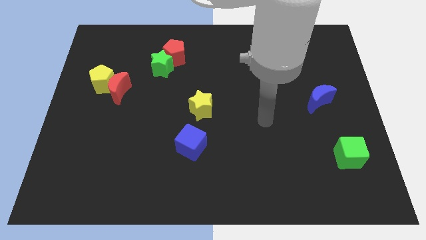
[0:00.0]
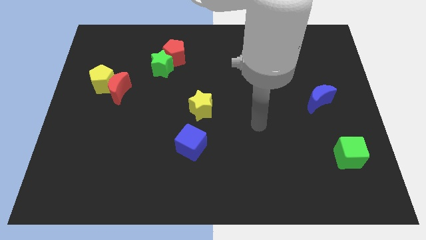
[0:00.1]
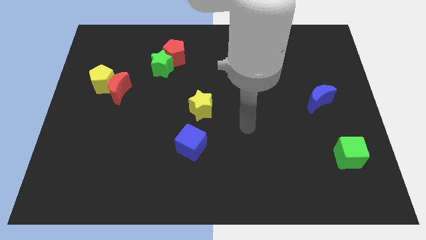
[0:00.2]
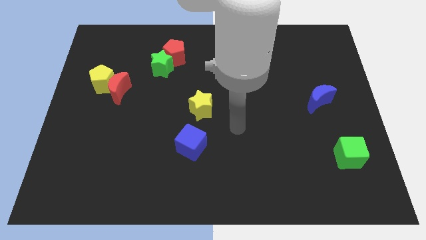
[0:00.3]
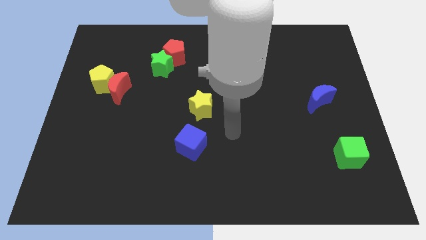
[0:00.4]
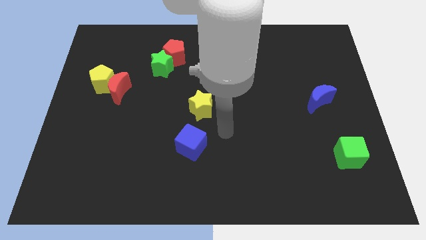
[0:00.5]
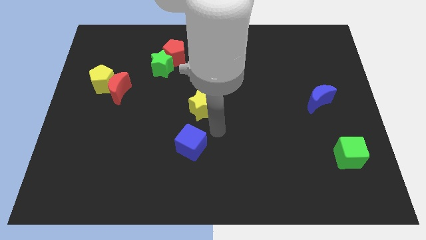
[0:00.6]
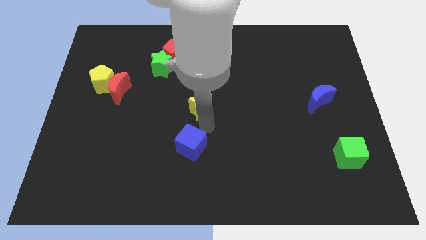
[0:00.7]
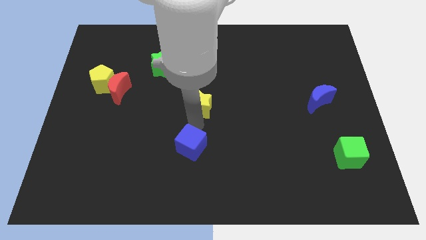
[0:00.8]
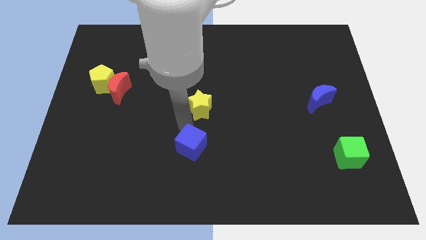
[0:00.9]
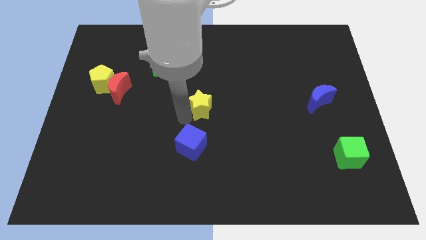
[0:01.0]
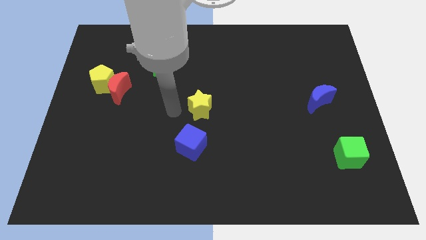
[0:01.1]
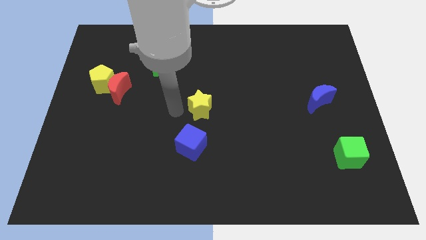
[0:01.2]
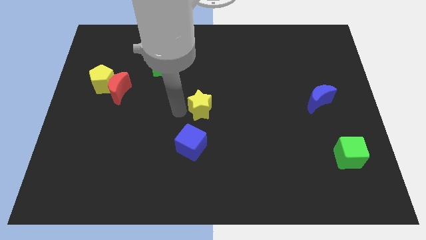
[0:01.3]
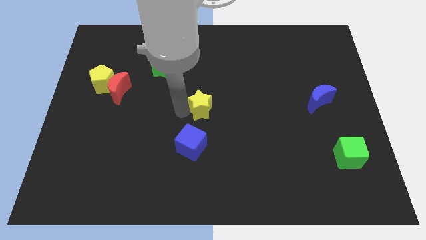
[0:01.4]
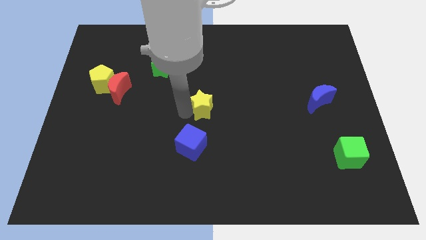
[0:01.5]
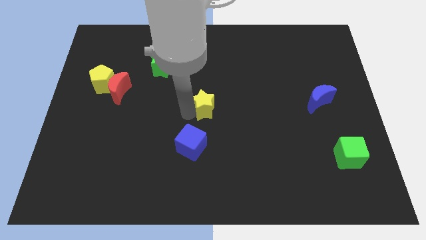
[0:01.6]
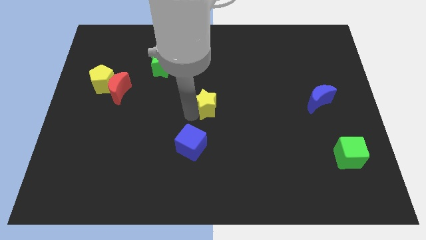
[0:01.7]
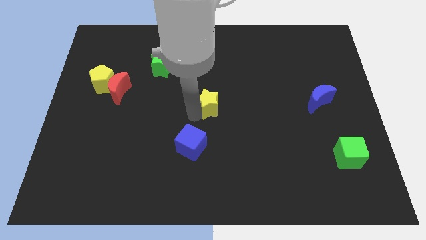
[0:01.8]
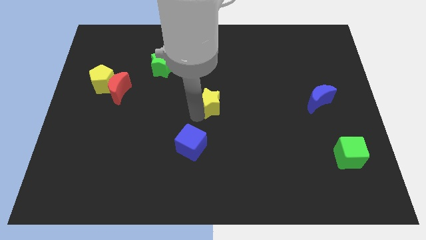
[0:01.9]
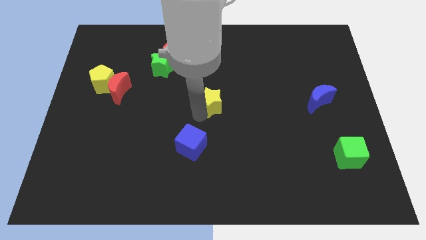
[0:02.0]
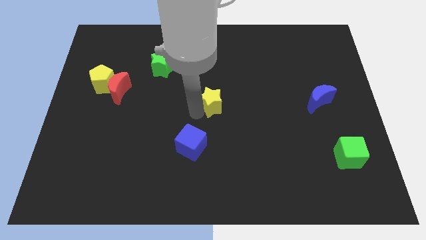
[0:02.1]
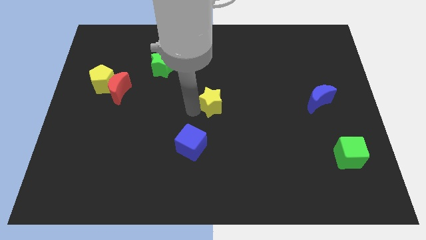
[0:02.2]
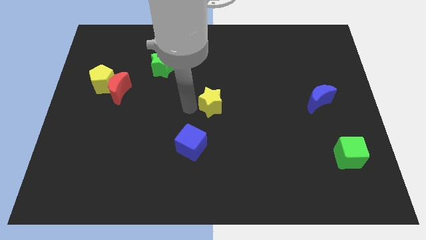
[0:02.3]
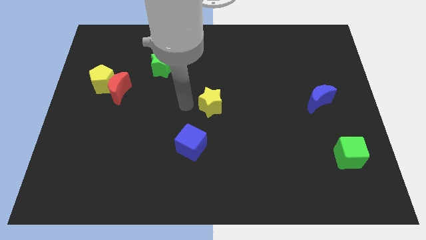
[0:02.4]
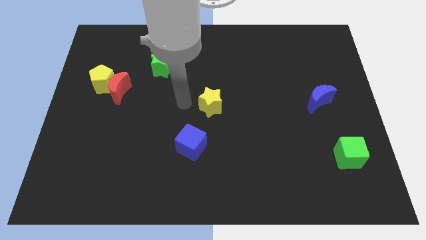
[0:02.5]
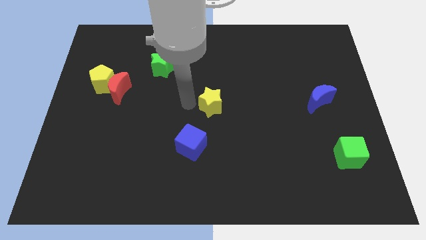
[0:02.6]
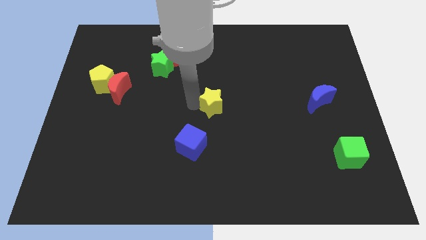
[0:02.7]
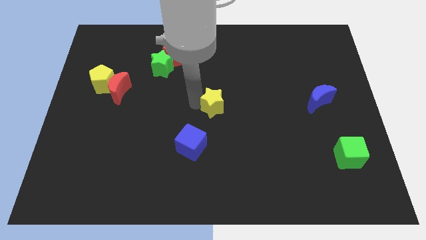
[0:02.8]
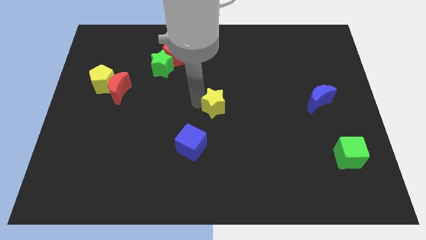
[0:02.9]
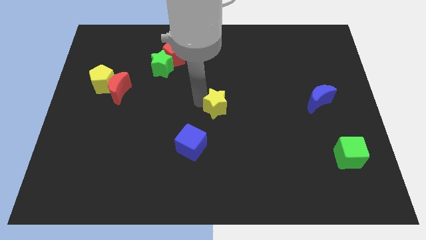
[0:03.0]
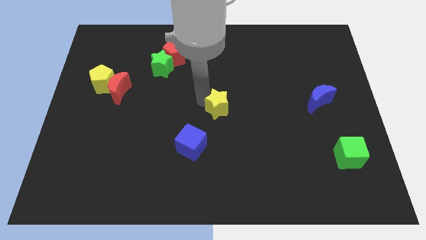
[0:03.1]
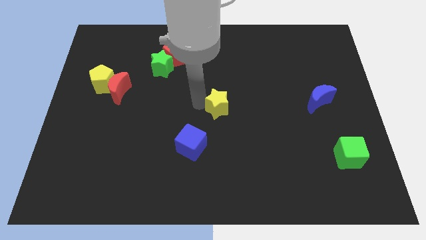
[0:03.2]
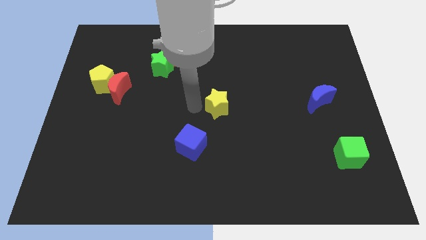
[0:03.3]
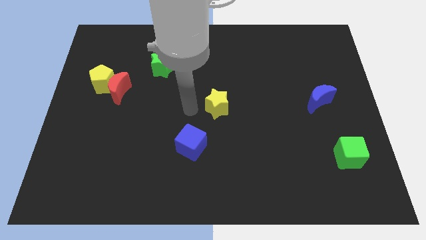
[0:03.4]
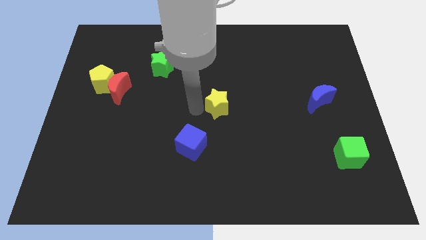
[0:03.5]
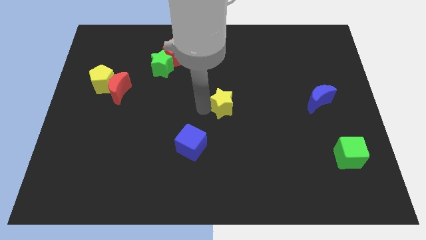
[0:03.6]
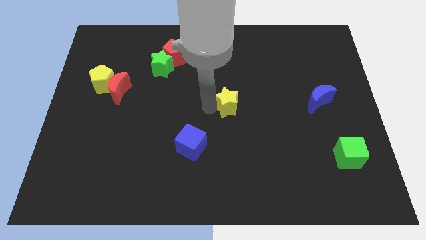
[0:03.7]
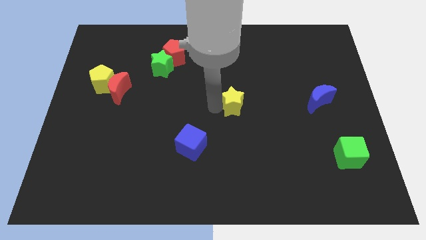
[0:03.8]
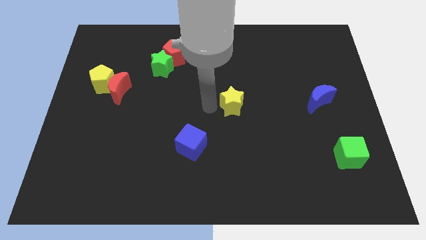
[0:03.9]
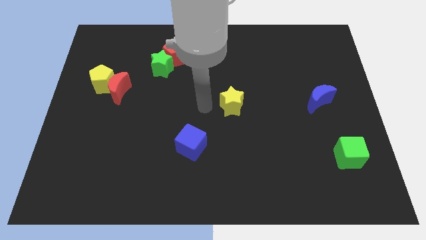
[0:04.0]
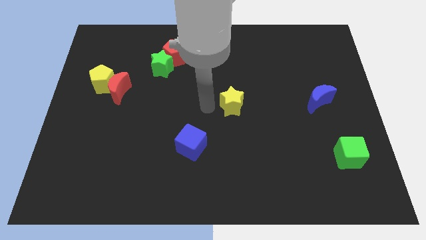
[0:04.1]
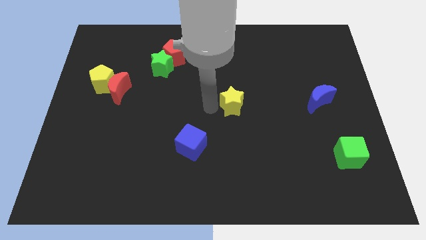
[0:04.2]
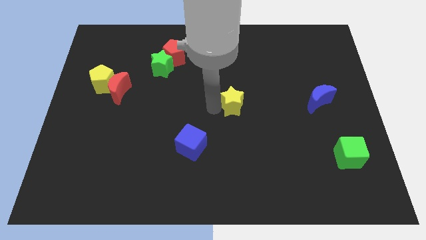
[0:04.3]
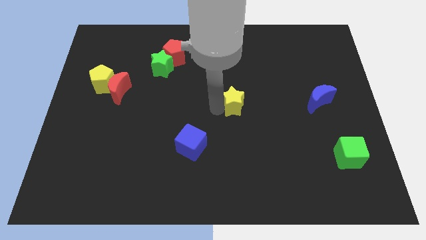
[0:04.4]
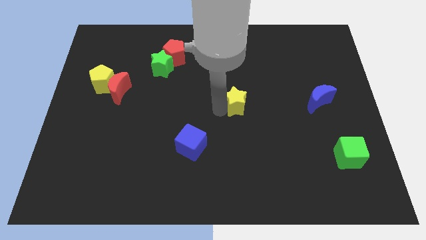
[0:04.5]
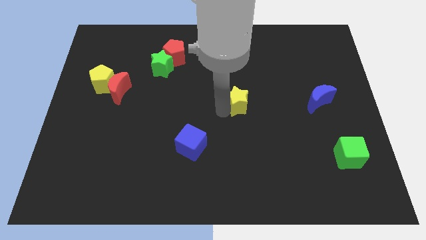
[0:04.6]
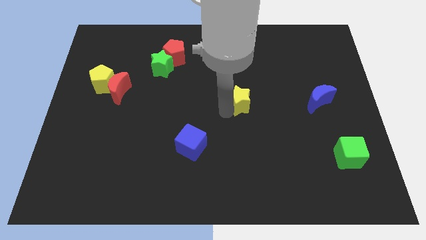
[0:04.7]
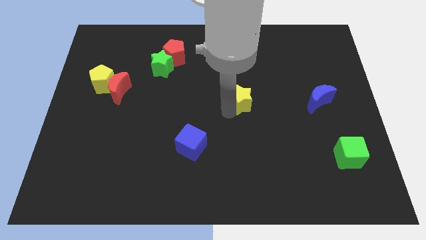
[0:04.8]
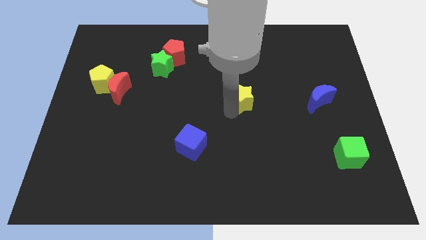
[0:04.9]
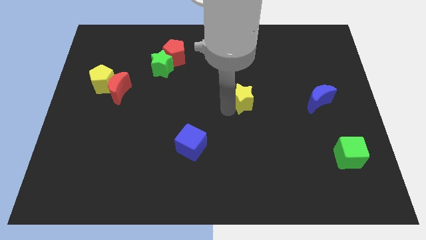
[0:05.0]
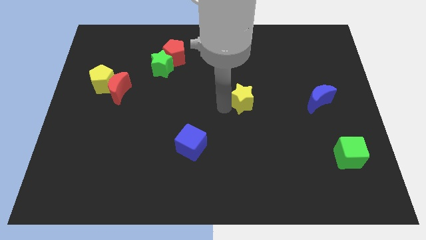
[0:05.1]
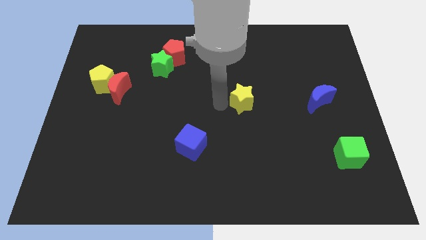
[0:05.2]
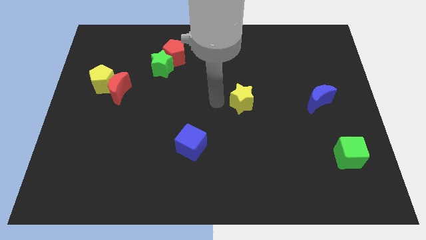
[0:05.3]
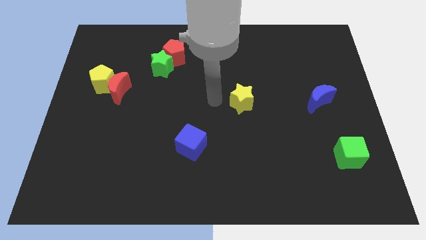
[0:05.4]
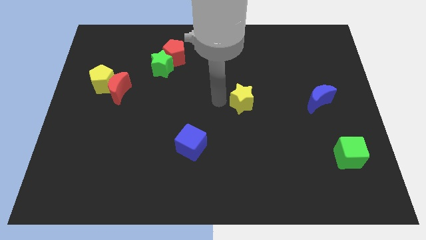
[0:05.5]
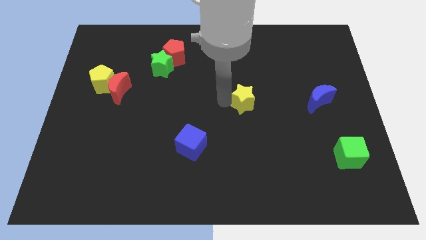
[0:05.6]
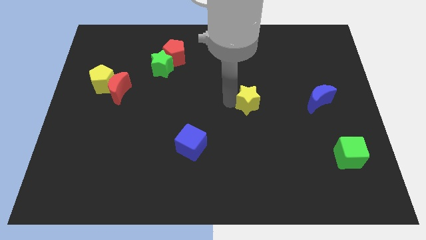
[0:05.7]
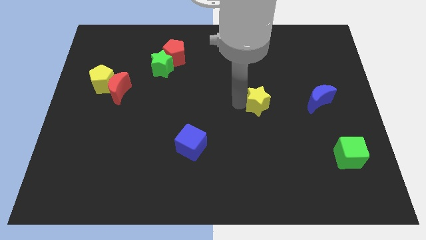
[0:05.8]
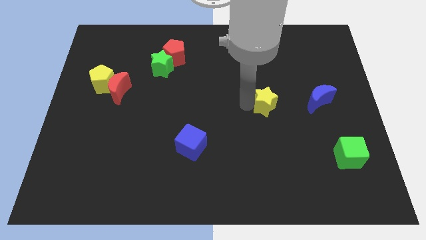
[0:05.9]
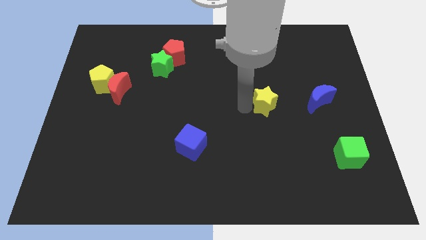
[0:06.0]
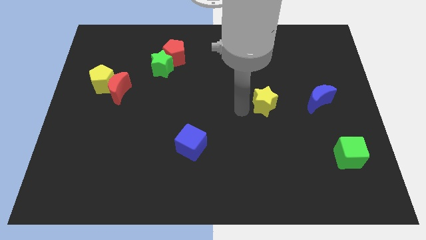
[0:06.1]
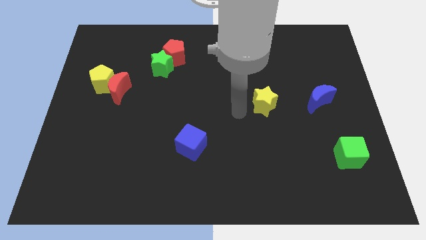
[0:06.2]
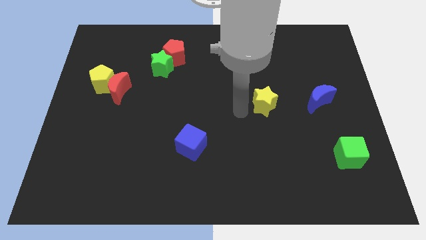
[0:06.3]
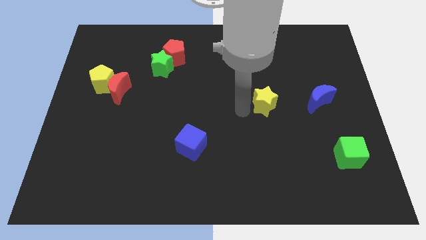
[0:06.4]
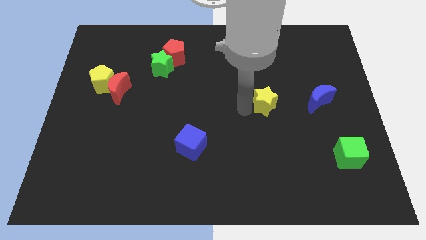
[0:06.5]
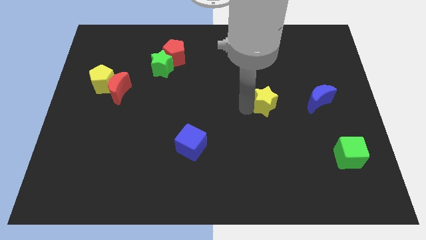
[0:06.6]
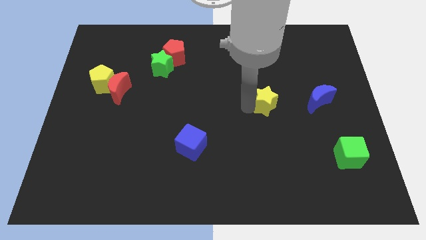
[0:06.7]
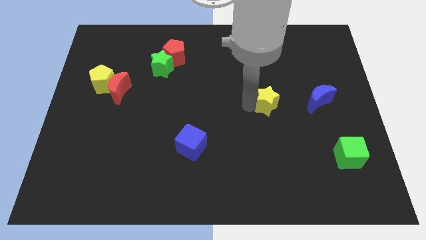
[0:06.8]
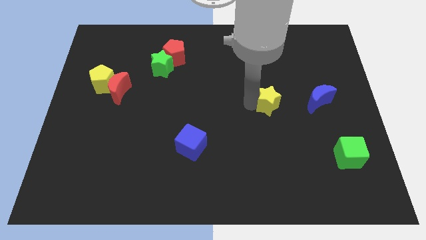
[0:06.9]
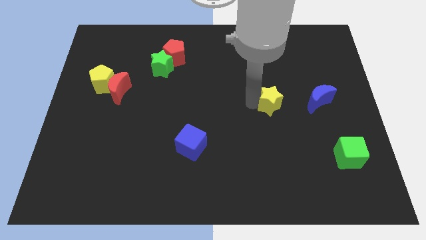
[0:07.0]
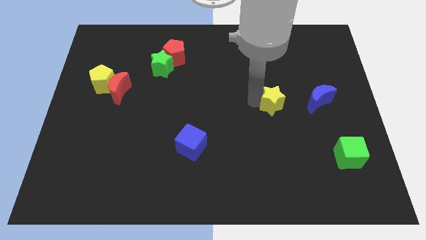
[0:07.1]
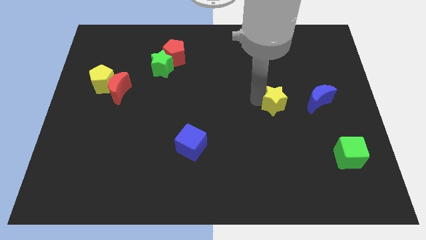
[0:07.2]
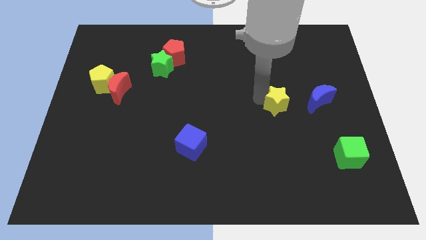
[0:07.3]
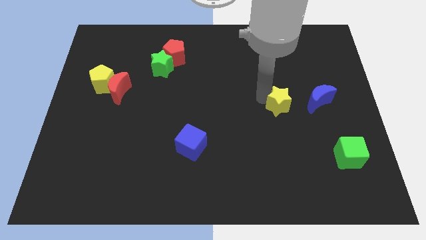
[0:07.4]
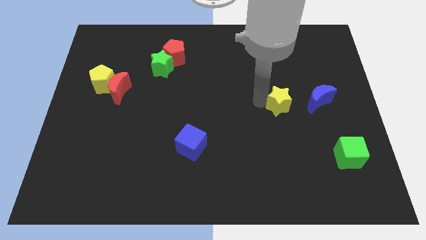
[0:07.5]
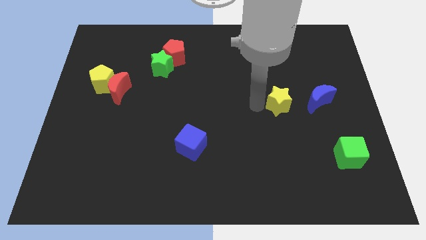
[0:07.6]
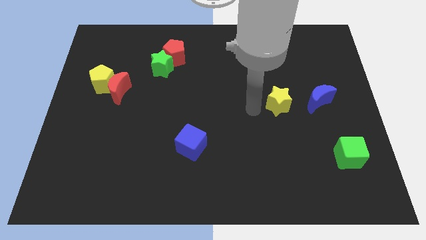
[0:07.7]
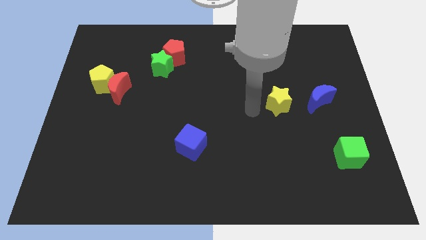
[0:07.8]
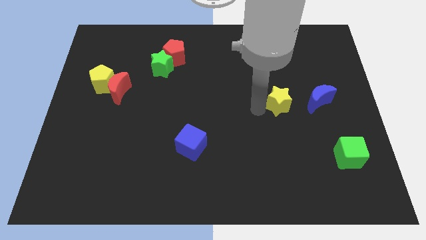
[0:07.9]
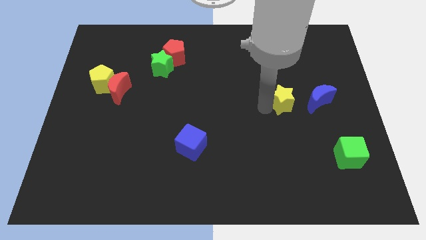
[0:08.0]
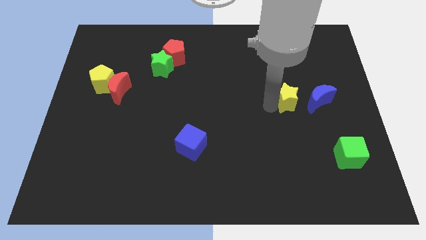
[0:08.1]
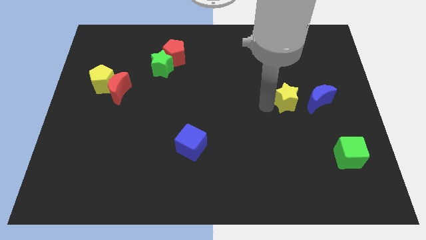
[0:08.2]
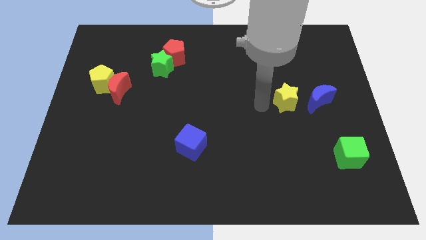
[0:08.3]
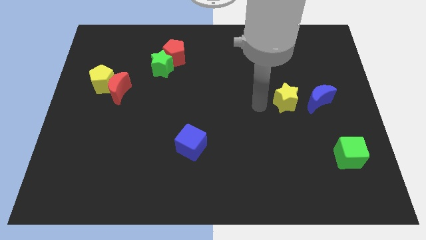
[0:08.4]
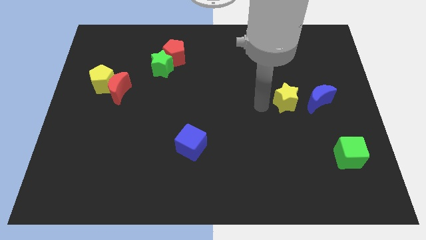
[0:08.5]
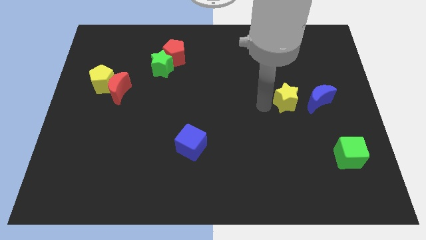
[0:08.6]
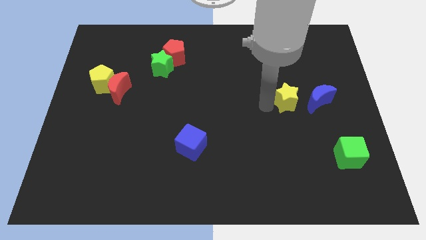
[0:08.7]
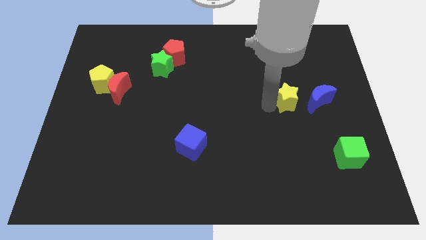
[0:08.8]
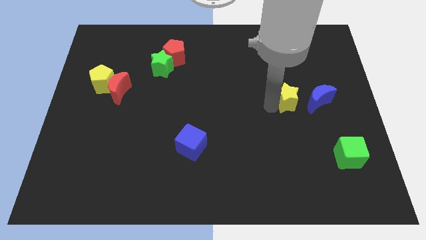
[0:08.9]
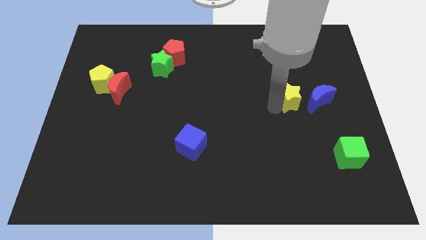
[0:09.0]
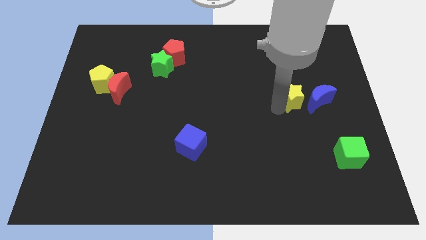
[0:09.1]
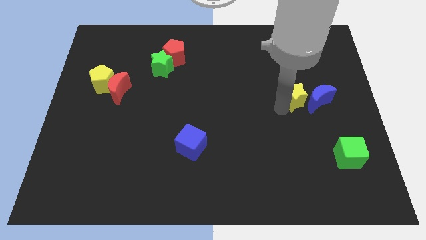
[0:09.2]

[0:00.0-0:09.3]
put the yellow star close to the blue moon
